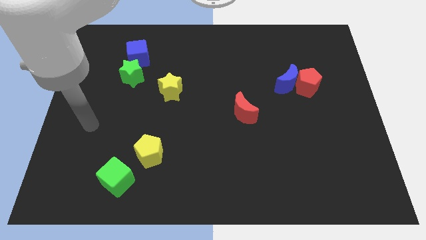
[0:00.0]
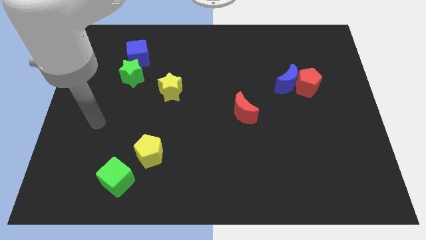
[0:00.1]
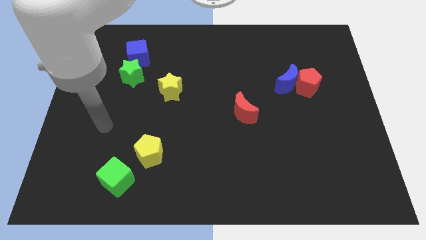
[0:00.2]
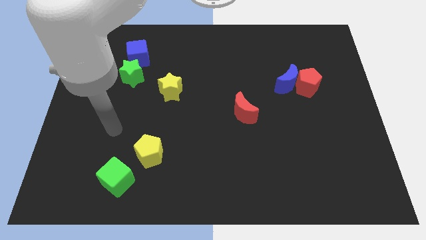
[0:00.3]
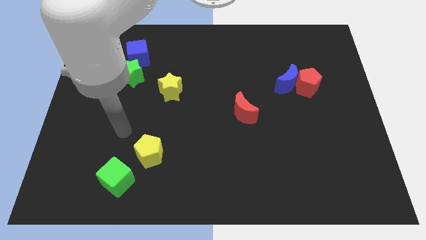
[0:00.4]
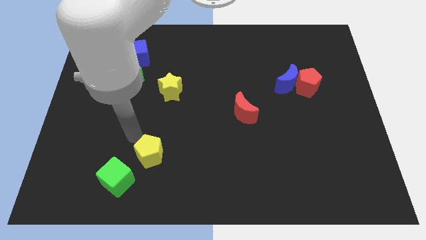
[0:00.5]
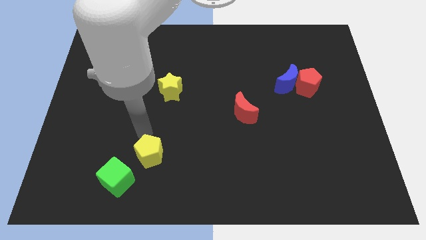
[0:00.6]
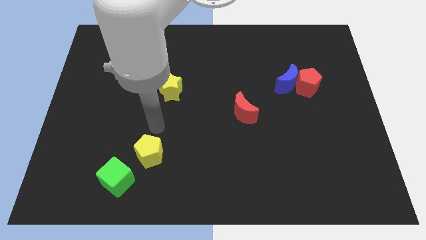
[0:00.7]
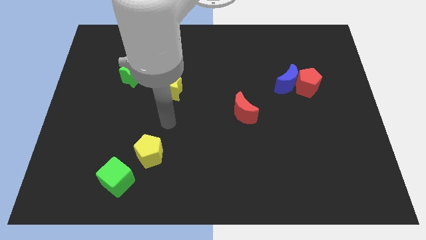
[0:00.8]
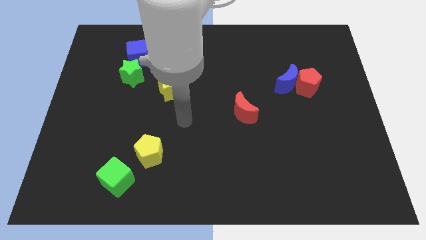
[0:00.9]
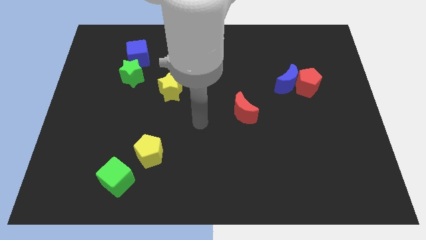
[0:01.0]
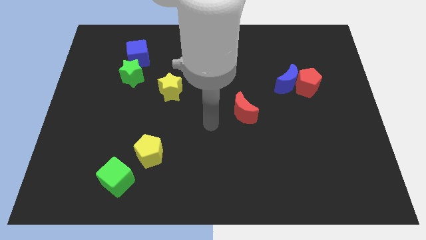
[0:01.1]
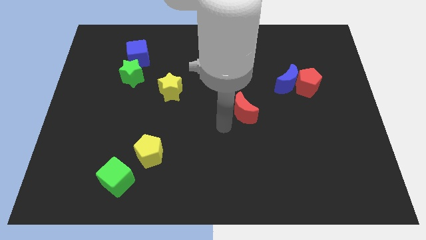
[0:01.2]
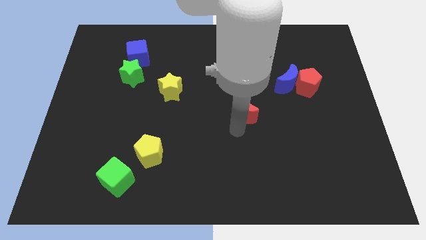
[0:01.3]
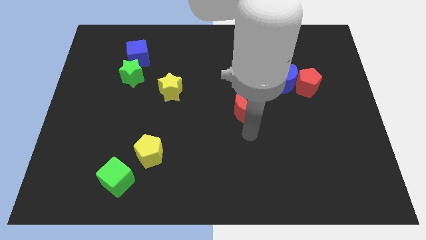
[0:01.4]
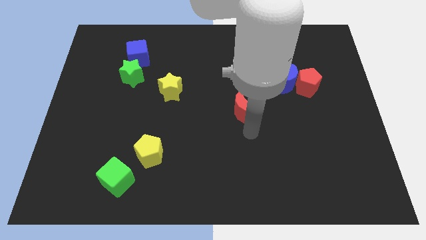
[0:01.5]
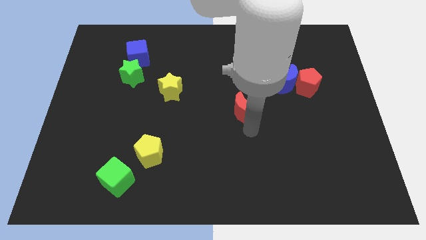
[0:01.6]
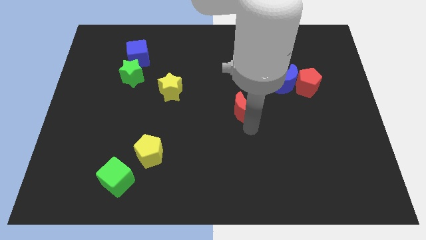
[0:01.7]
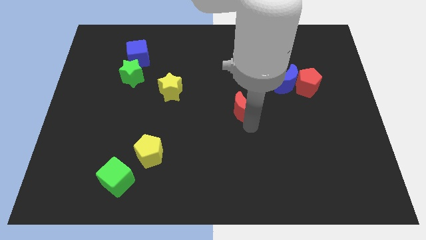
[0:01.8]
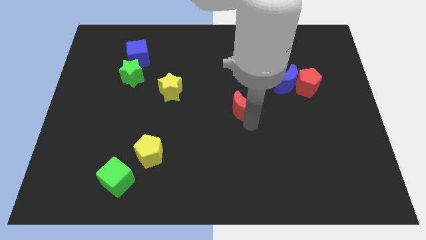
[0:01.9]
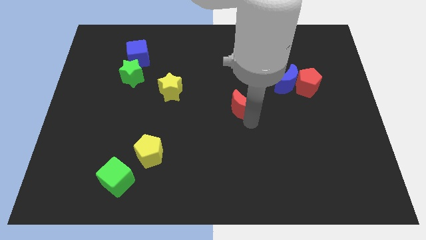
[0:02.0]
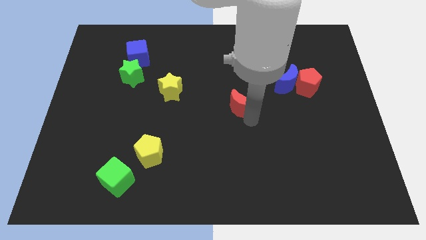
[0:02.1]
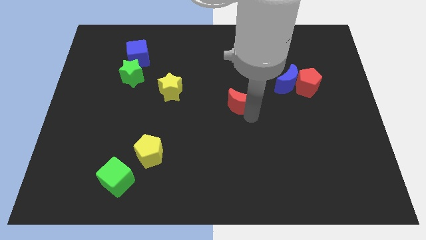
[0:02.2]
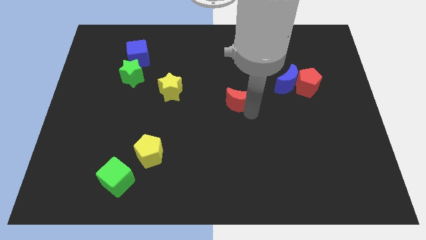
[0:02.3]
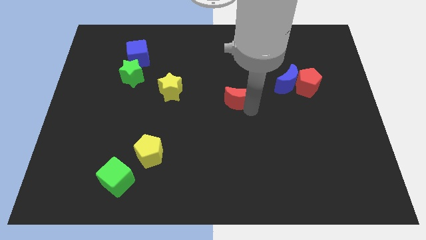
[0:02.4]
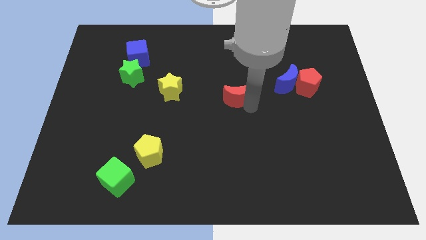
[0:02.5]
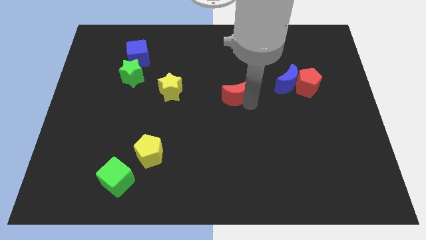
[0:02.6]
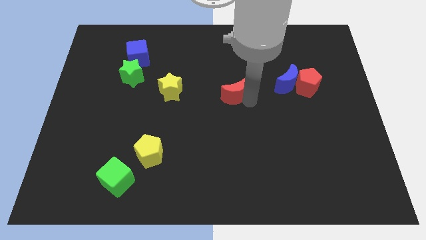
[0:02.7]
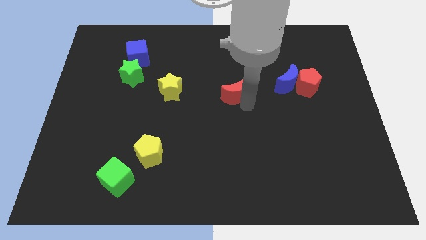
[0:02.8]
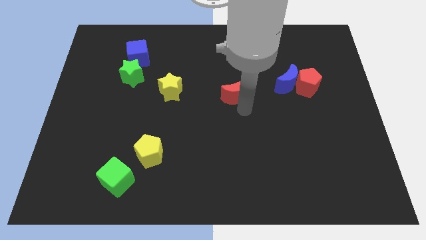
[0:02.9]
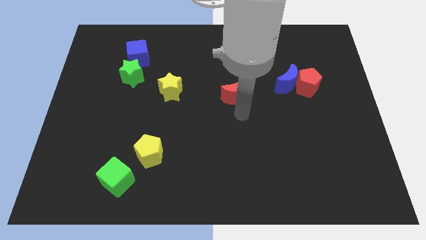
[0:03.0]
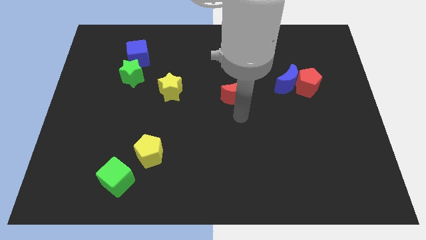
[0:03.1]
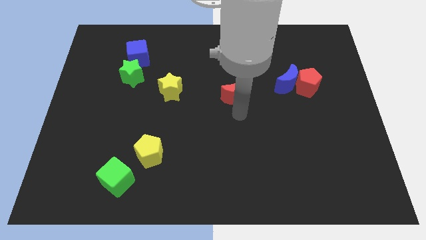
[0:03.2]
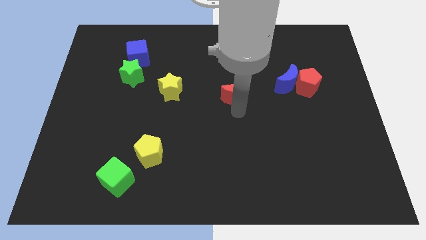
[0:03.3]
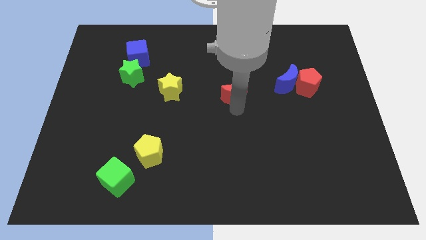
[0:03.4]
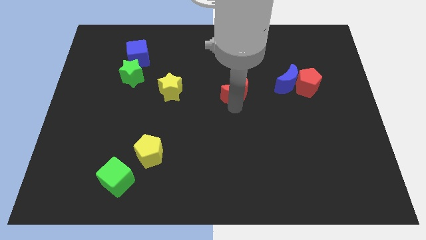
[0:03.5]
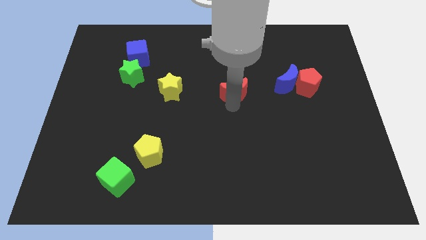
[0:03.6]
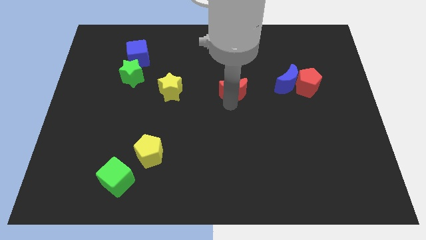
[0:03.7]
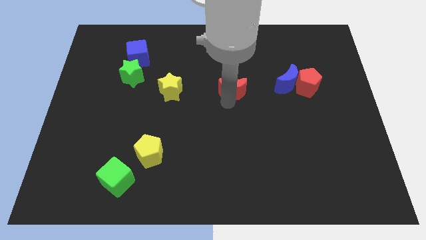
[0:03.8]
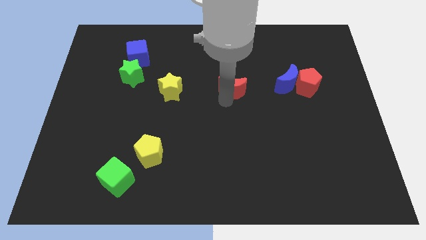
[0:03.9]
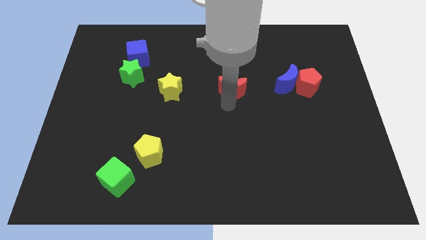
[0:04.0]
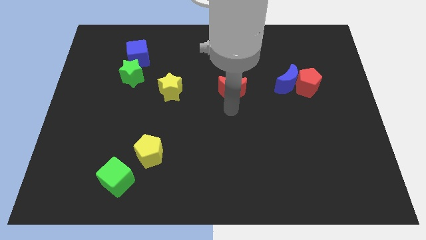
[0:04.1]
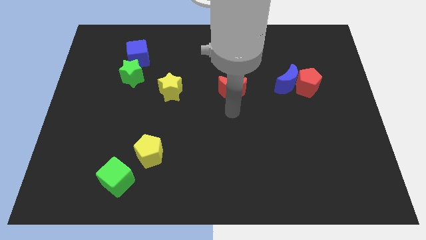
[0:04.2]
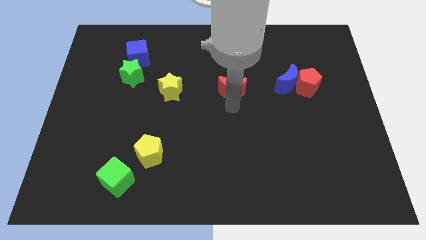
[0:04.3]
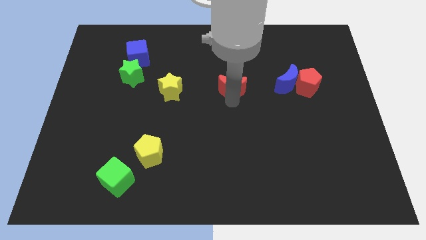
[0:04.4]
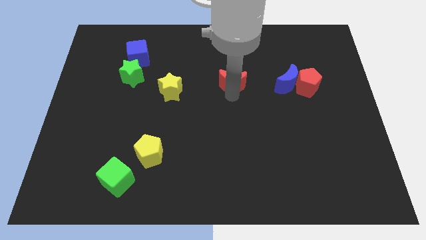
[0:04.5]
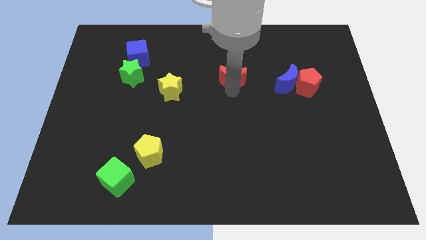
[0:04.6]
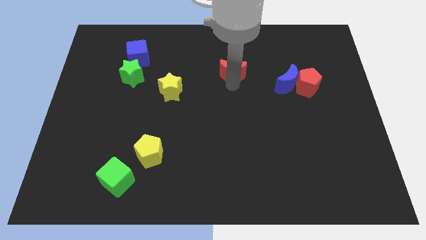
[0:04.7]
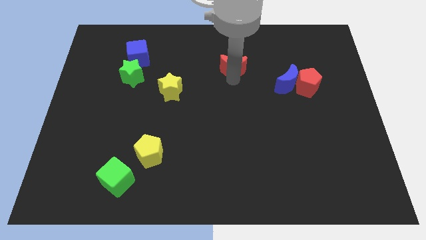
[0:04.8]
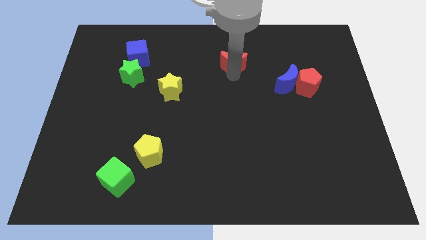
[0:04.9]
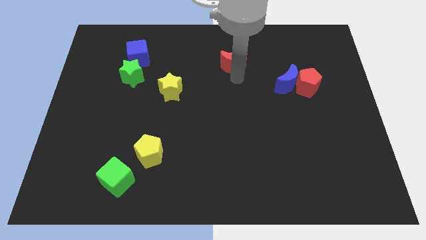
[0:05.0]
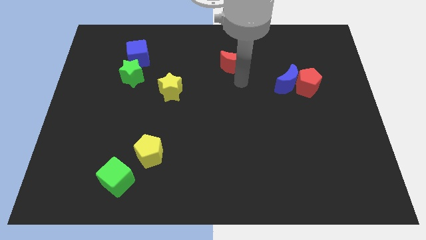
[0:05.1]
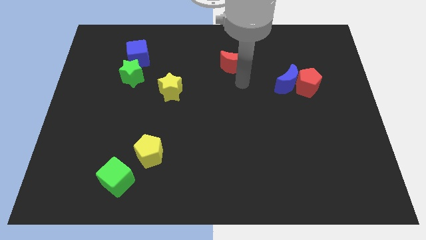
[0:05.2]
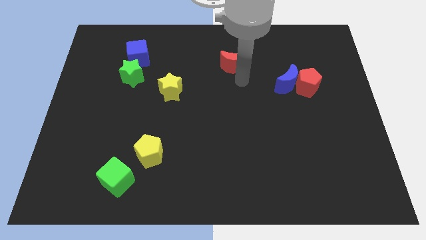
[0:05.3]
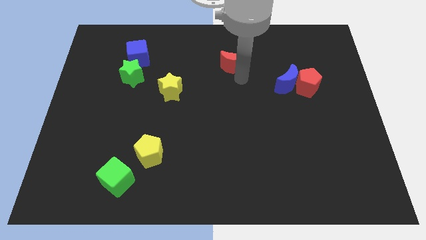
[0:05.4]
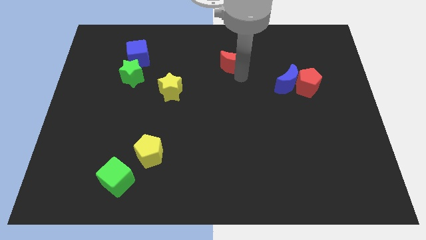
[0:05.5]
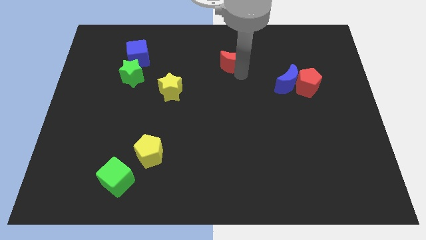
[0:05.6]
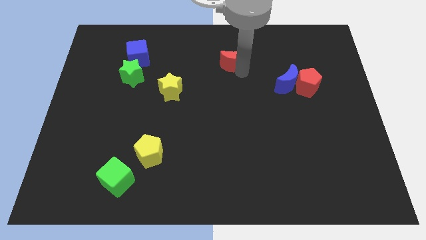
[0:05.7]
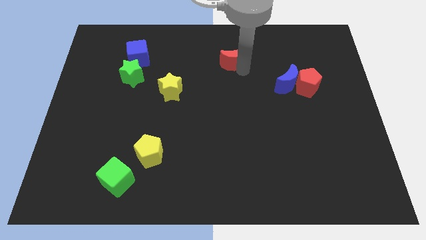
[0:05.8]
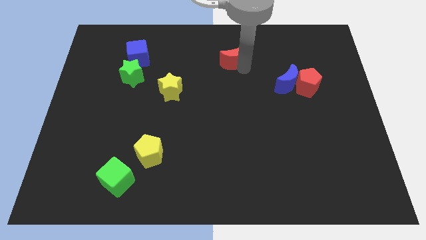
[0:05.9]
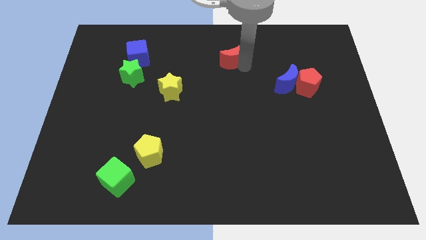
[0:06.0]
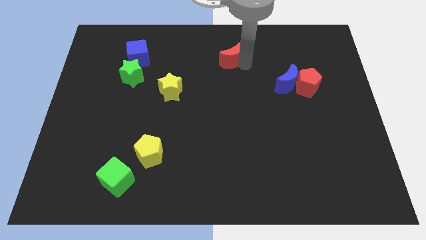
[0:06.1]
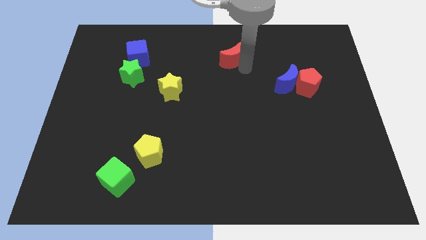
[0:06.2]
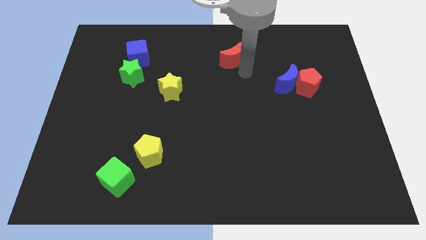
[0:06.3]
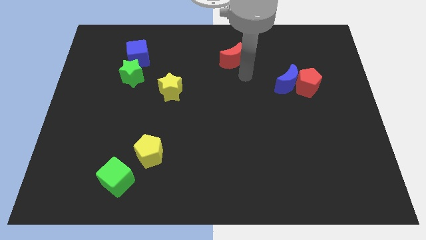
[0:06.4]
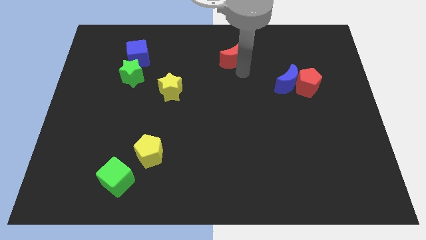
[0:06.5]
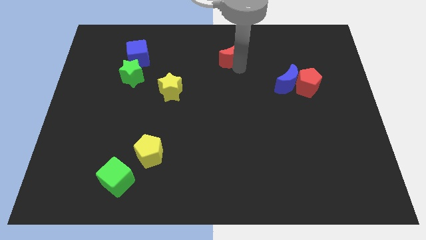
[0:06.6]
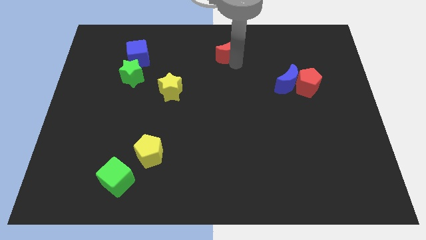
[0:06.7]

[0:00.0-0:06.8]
push the red moon to the top side
